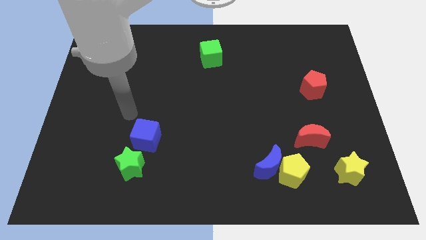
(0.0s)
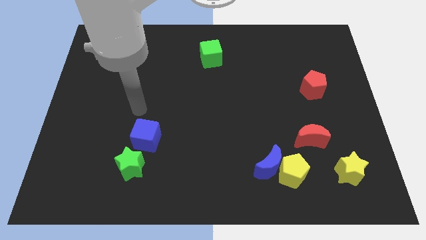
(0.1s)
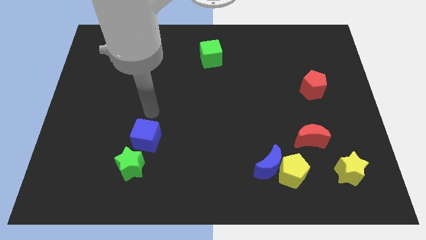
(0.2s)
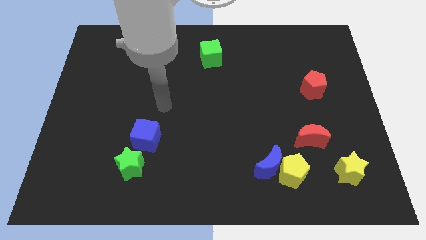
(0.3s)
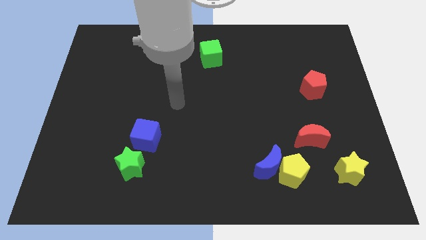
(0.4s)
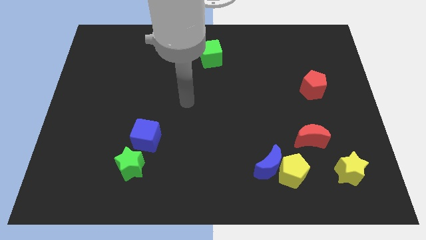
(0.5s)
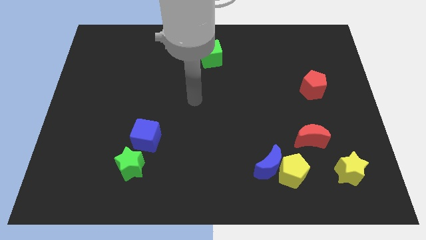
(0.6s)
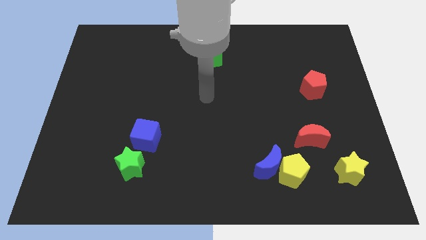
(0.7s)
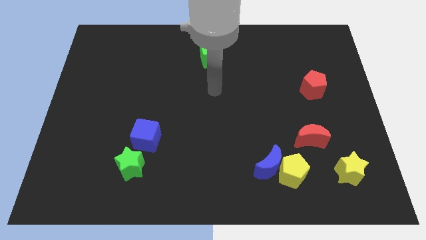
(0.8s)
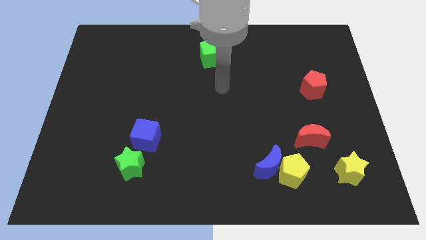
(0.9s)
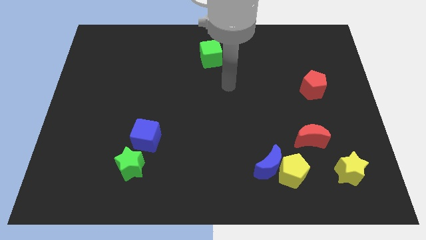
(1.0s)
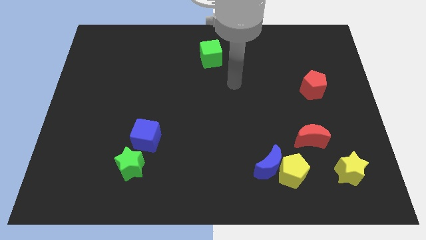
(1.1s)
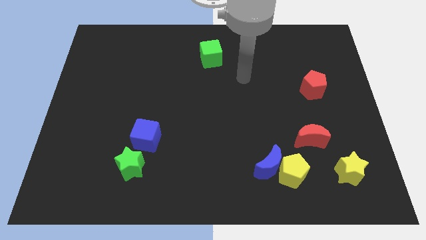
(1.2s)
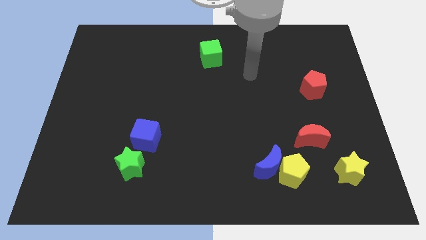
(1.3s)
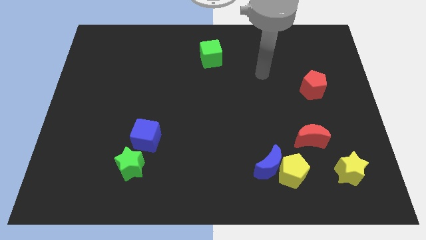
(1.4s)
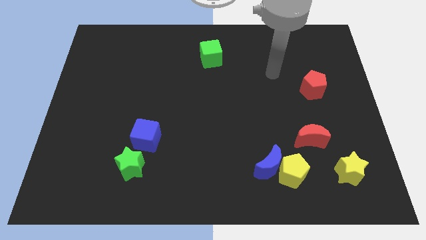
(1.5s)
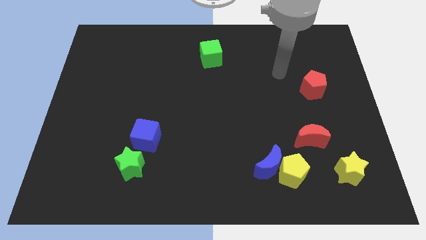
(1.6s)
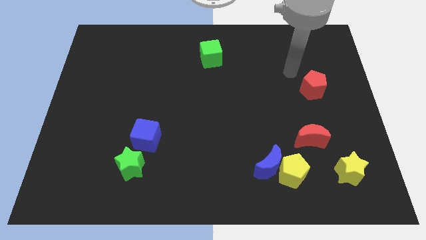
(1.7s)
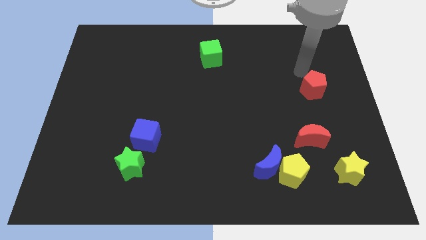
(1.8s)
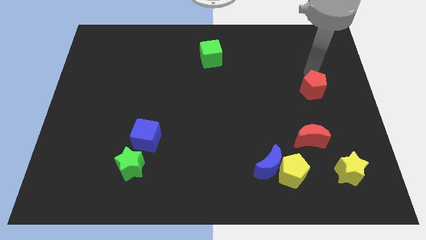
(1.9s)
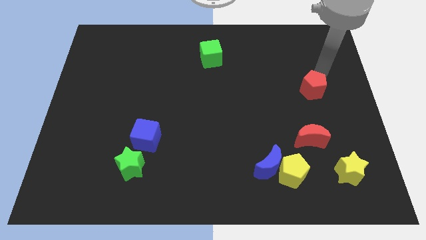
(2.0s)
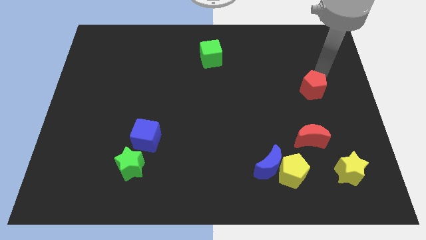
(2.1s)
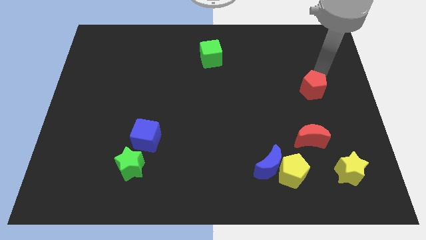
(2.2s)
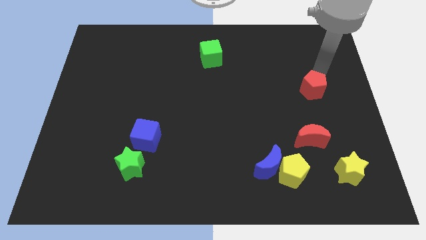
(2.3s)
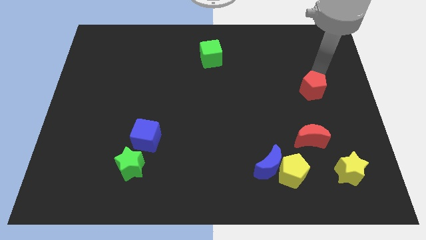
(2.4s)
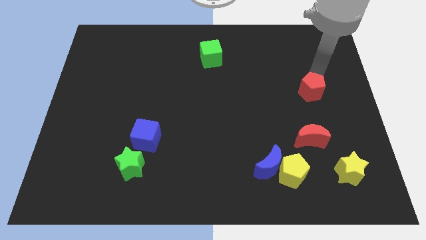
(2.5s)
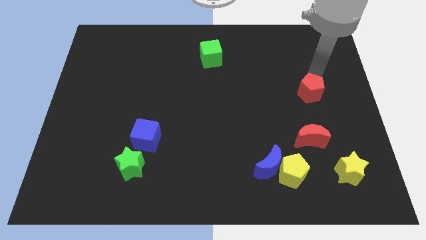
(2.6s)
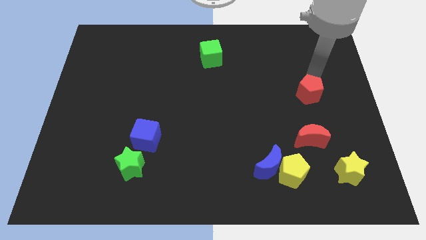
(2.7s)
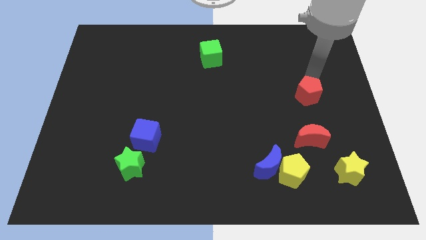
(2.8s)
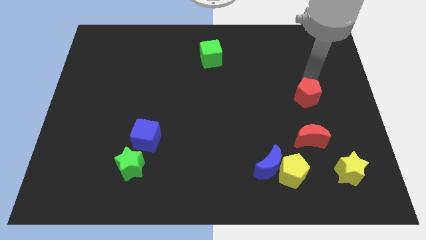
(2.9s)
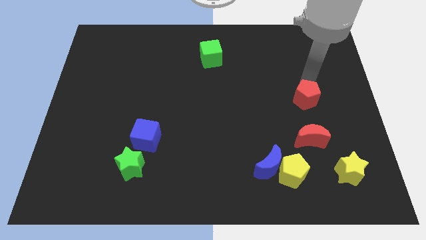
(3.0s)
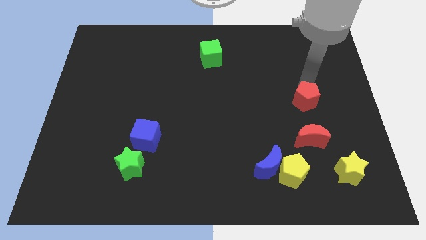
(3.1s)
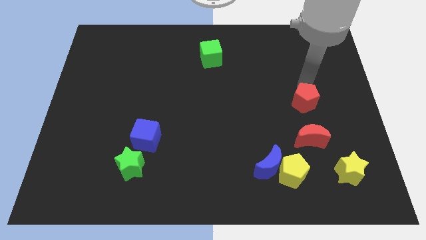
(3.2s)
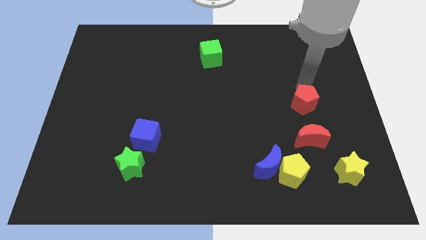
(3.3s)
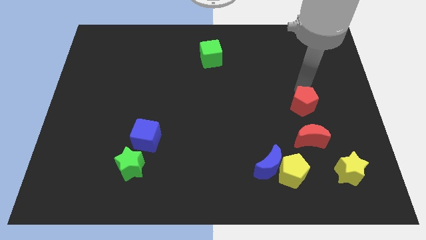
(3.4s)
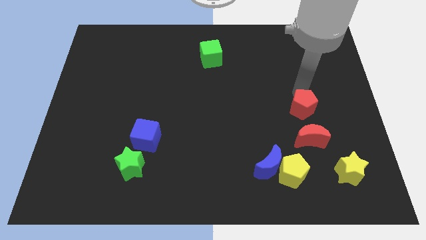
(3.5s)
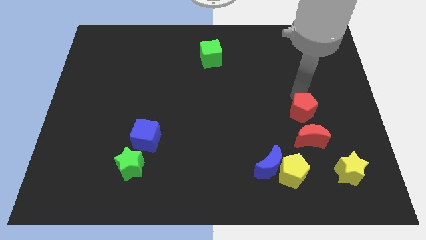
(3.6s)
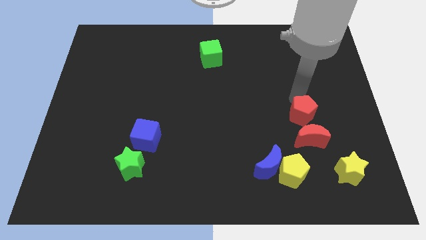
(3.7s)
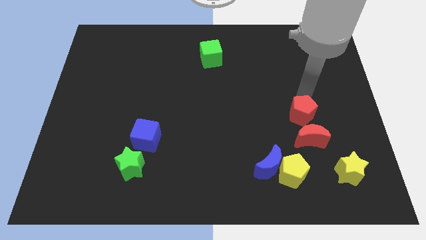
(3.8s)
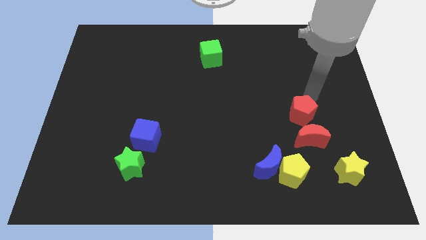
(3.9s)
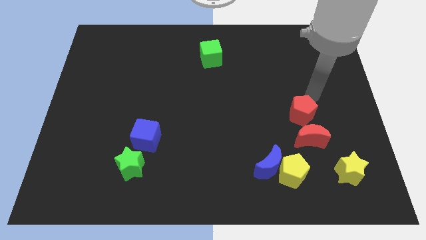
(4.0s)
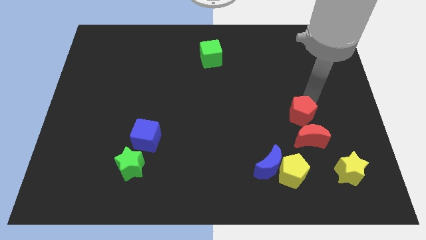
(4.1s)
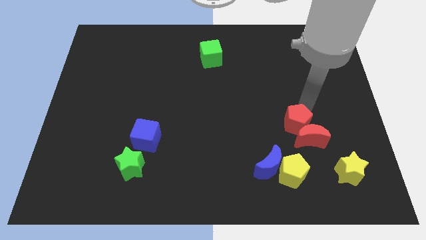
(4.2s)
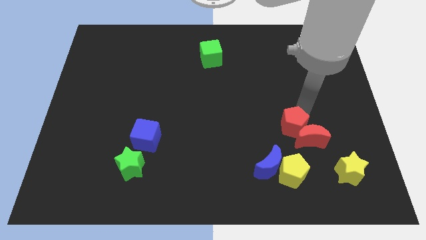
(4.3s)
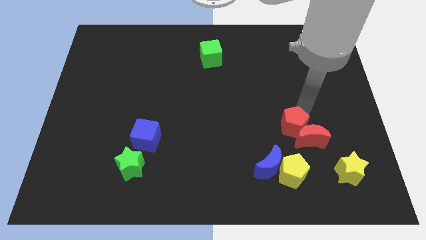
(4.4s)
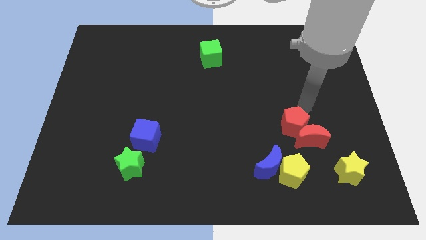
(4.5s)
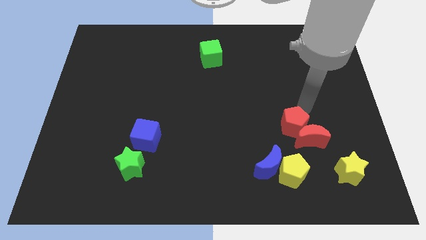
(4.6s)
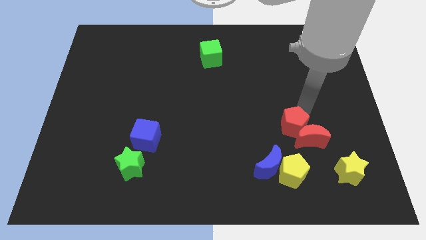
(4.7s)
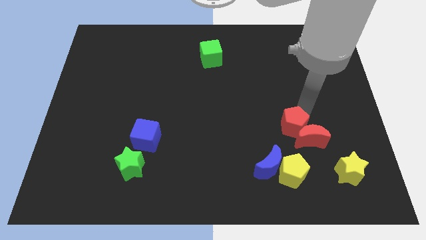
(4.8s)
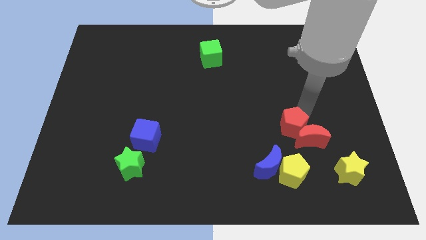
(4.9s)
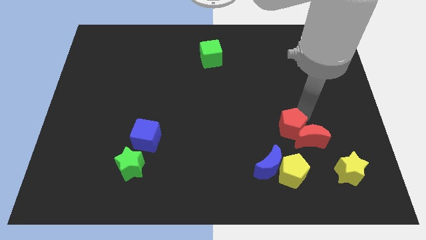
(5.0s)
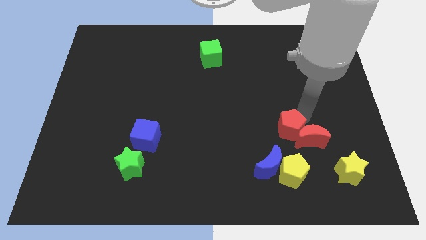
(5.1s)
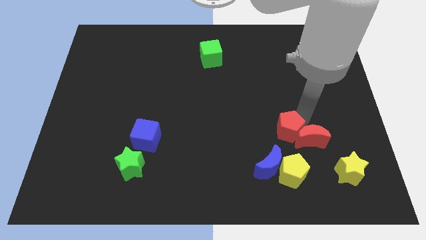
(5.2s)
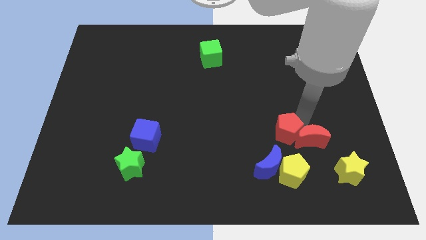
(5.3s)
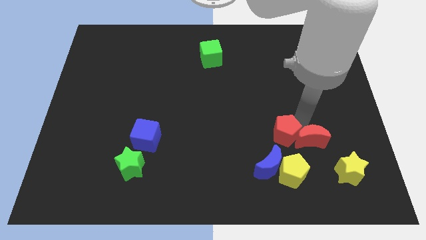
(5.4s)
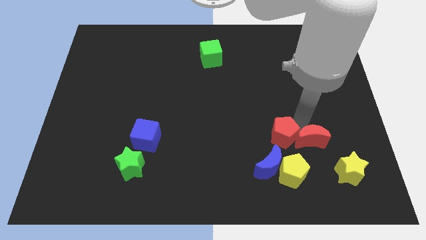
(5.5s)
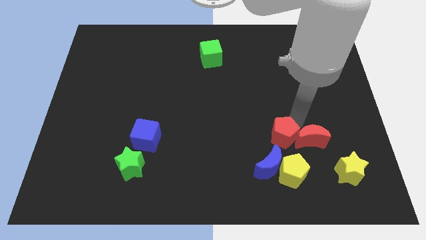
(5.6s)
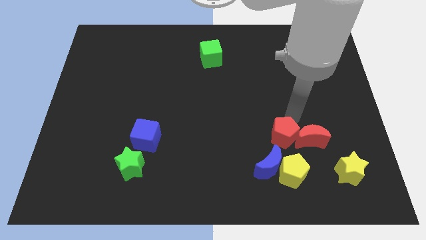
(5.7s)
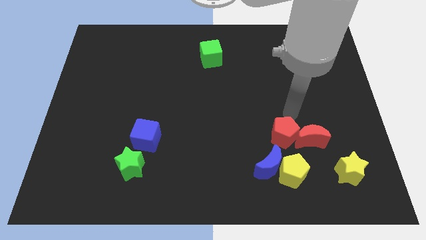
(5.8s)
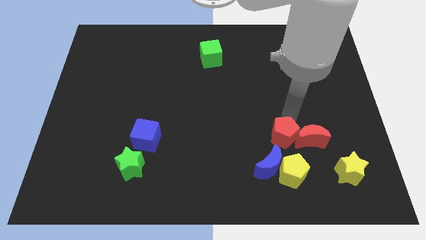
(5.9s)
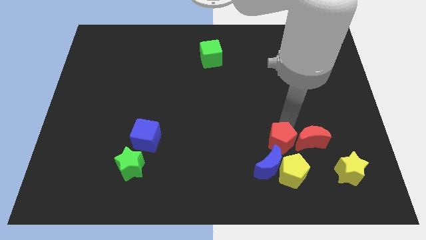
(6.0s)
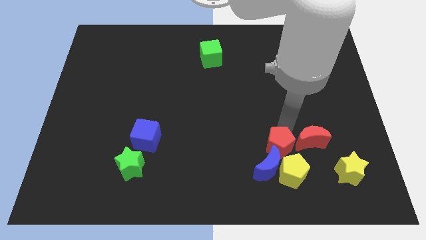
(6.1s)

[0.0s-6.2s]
slide the red pentagon to the blue moon
